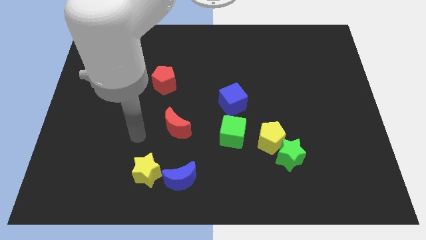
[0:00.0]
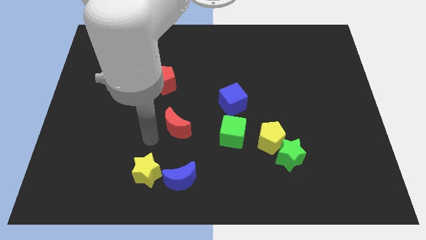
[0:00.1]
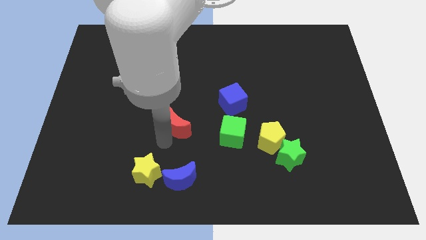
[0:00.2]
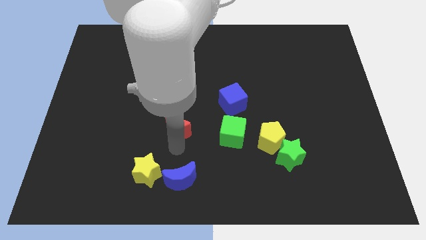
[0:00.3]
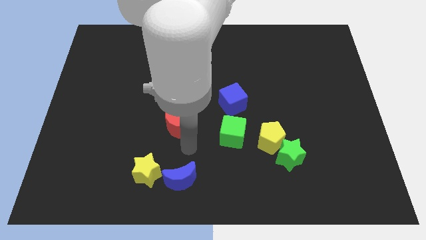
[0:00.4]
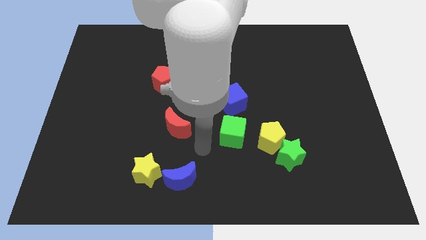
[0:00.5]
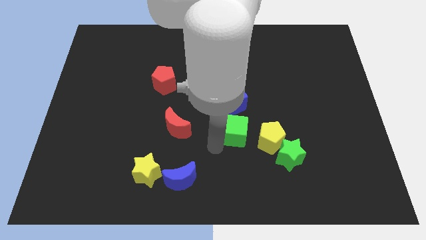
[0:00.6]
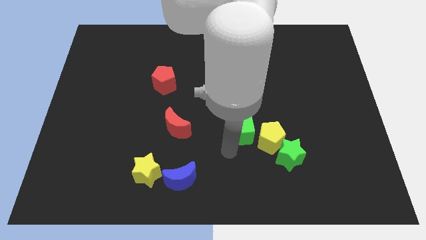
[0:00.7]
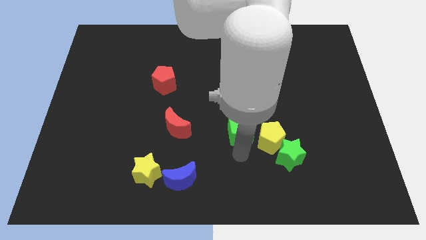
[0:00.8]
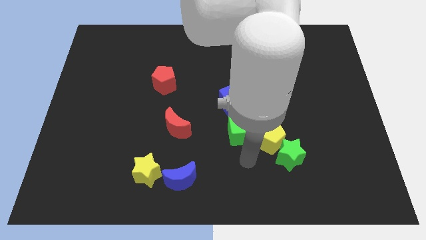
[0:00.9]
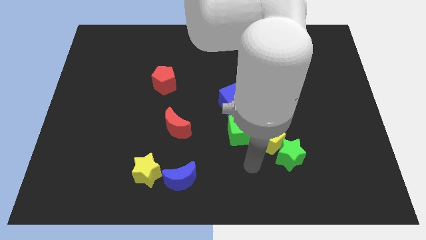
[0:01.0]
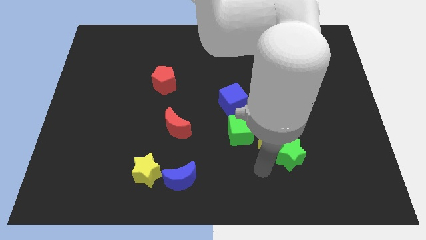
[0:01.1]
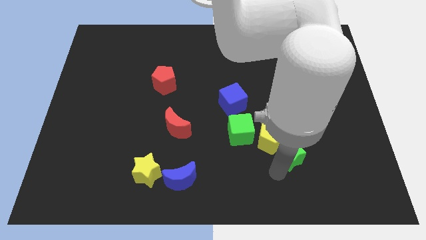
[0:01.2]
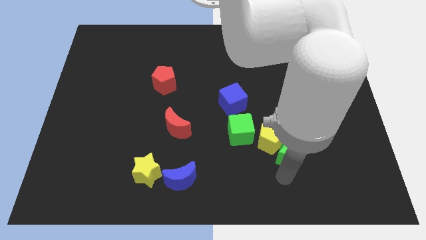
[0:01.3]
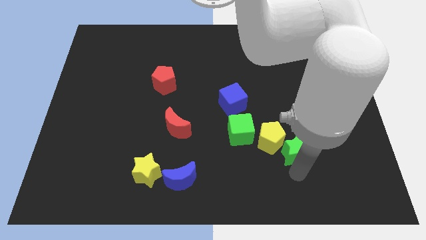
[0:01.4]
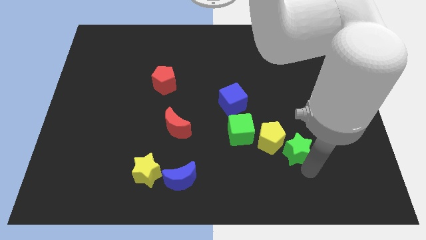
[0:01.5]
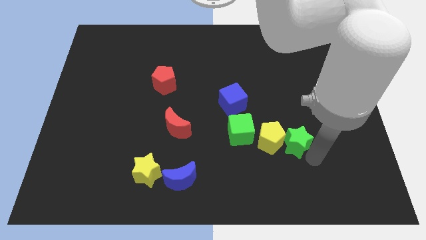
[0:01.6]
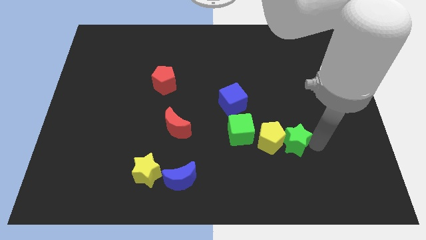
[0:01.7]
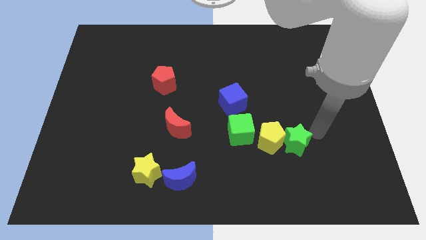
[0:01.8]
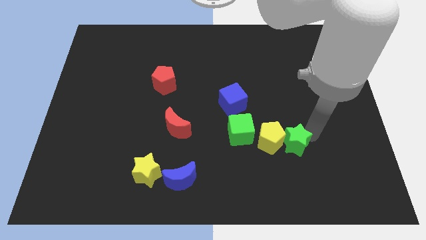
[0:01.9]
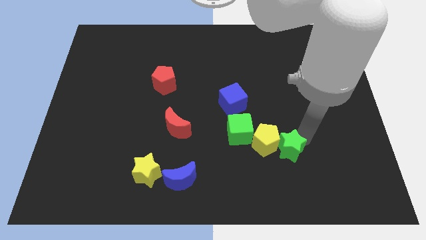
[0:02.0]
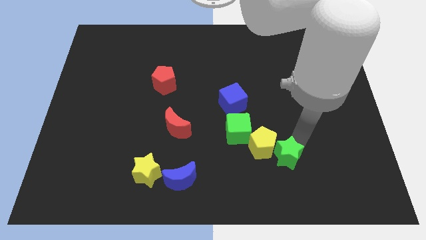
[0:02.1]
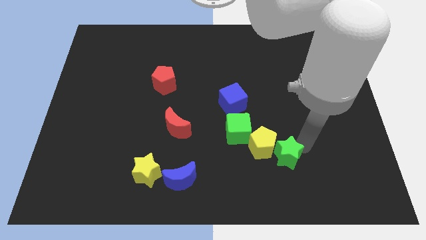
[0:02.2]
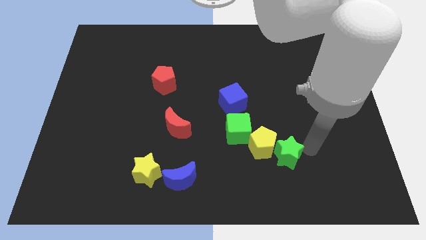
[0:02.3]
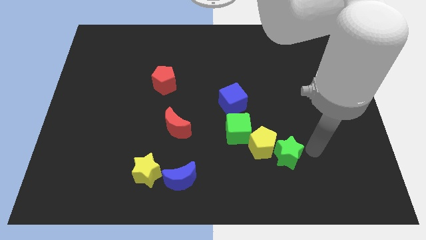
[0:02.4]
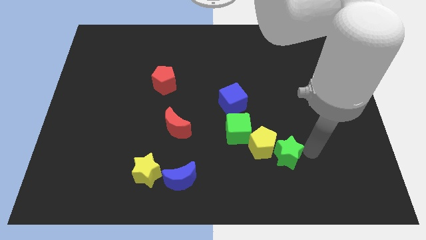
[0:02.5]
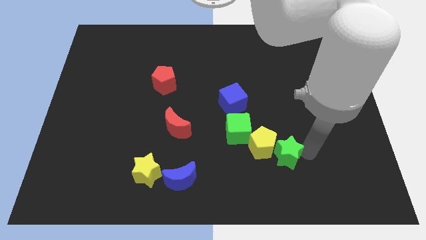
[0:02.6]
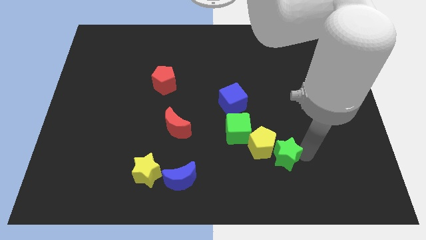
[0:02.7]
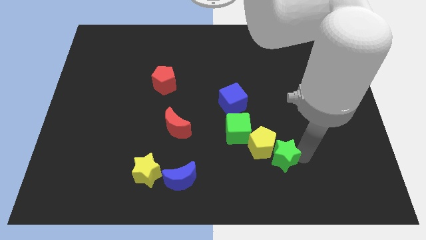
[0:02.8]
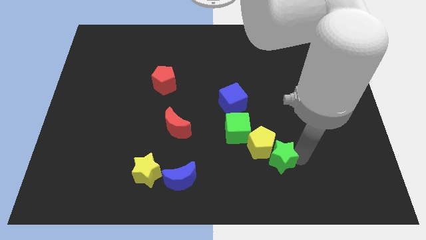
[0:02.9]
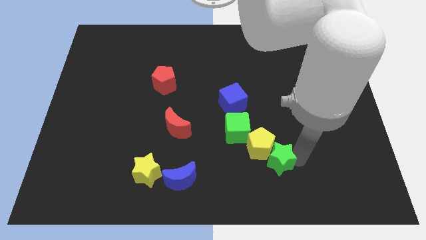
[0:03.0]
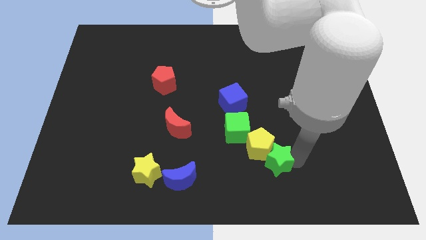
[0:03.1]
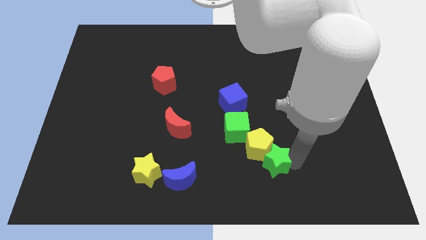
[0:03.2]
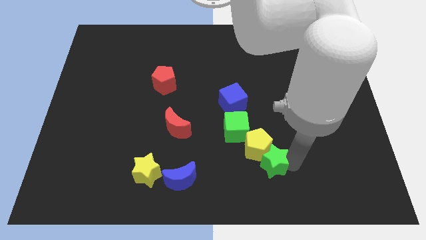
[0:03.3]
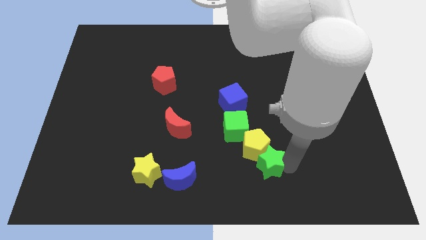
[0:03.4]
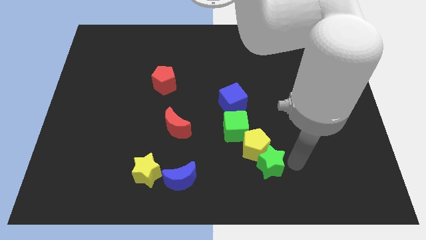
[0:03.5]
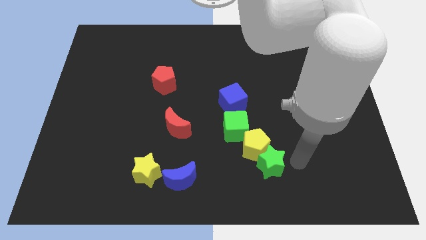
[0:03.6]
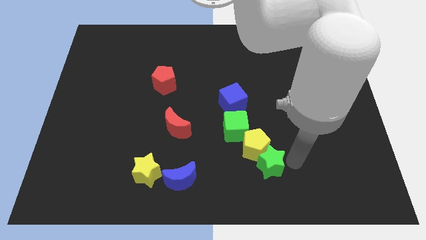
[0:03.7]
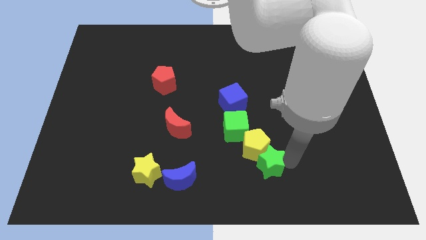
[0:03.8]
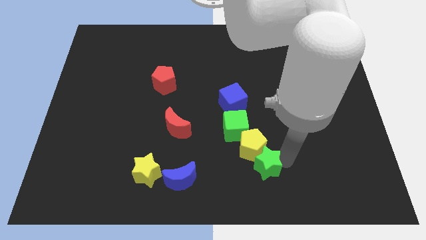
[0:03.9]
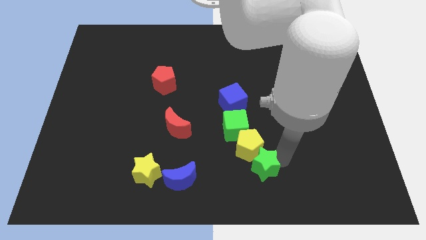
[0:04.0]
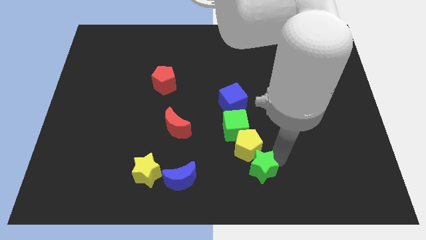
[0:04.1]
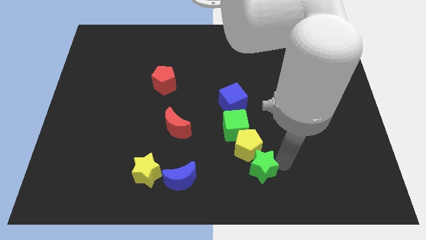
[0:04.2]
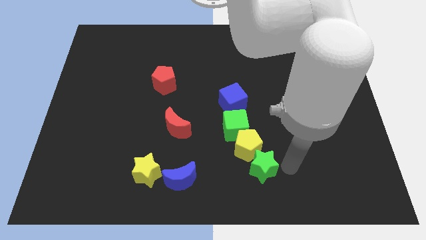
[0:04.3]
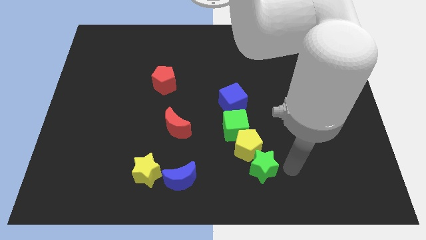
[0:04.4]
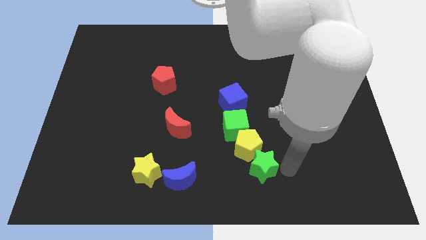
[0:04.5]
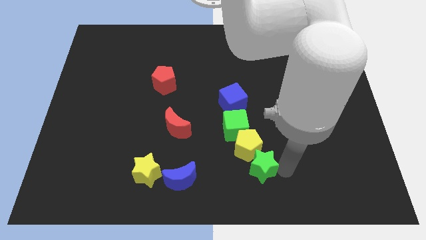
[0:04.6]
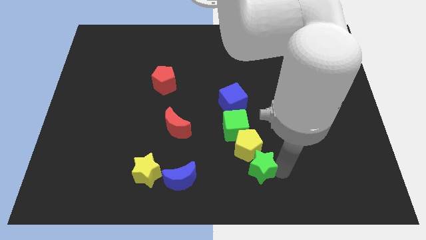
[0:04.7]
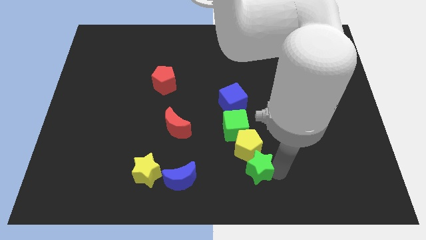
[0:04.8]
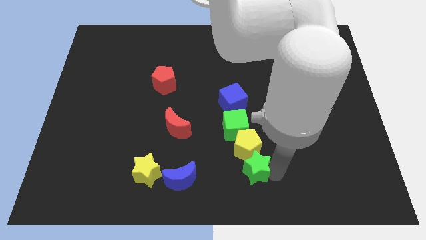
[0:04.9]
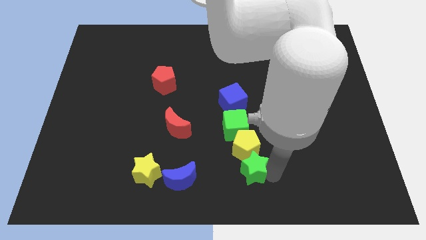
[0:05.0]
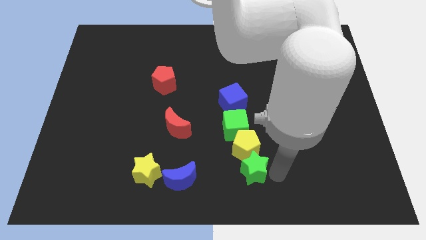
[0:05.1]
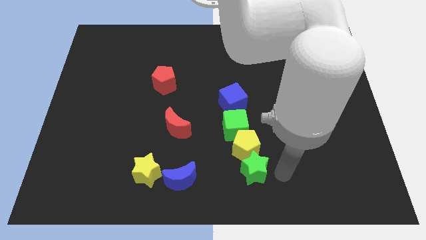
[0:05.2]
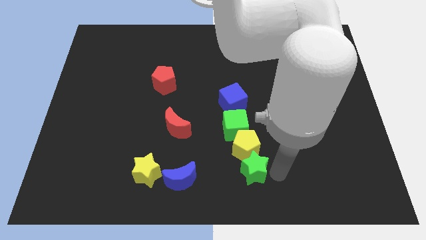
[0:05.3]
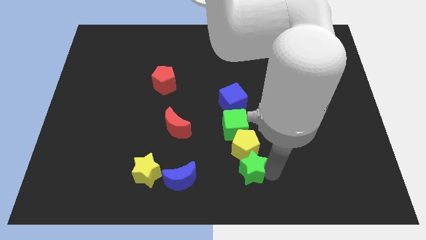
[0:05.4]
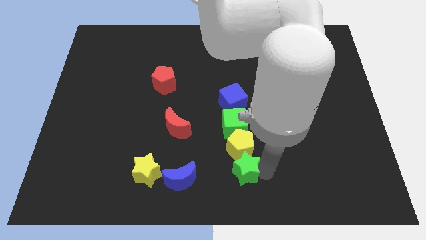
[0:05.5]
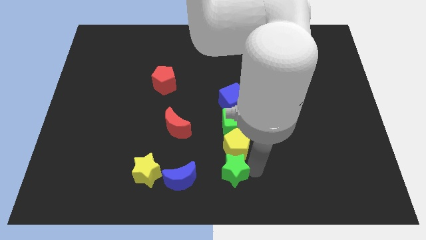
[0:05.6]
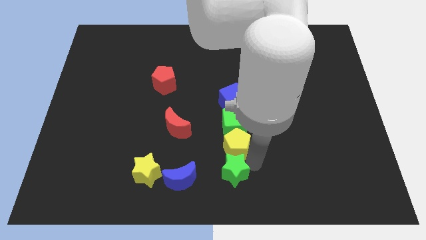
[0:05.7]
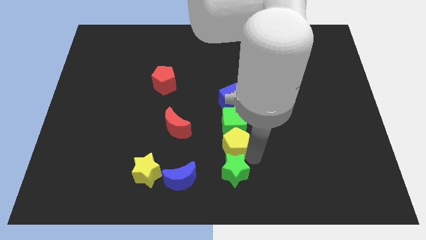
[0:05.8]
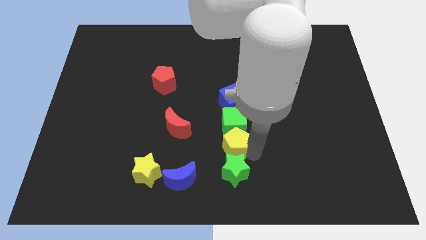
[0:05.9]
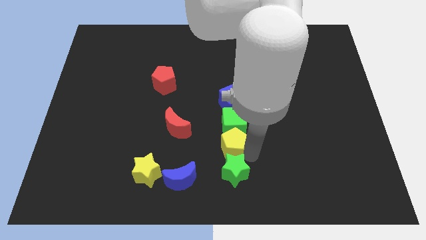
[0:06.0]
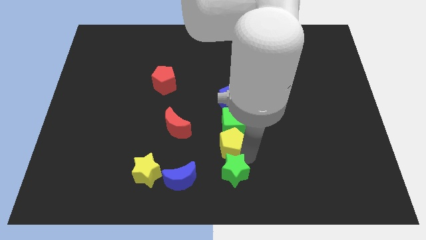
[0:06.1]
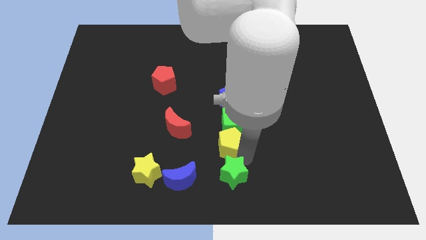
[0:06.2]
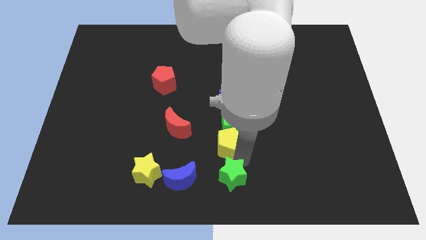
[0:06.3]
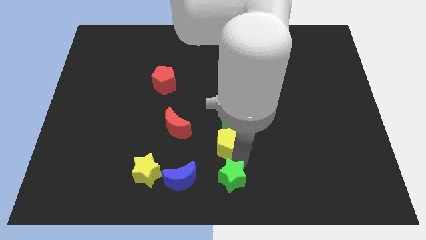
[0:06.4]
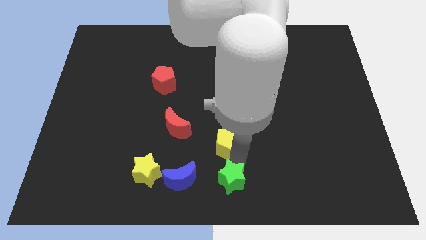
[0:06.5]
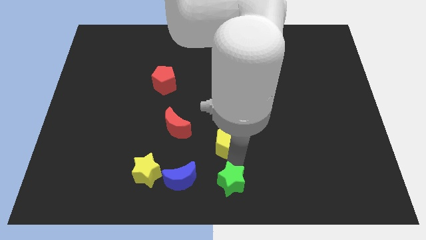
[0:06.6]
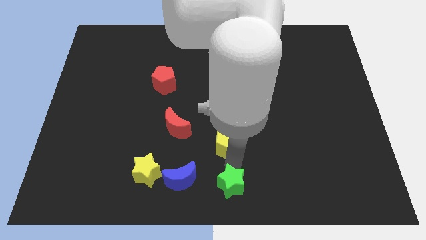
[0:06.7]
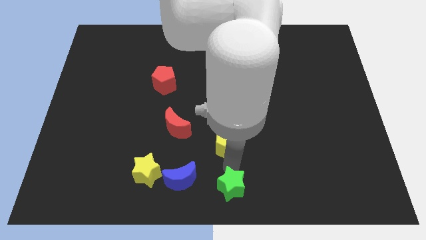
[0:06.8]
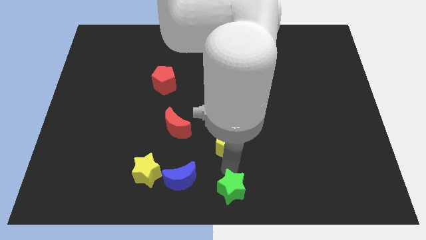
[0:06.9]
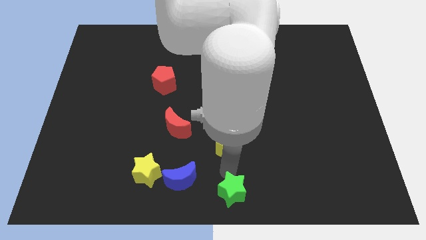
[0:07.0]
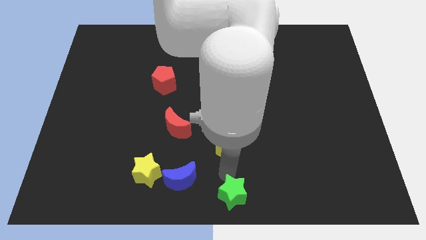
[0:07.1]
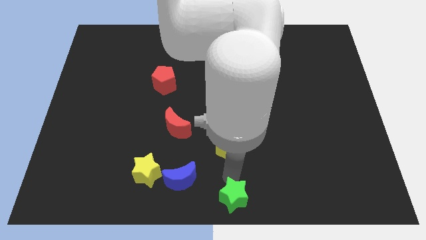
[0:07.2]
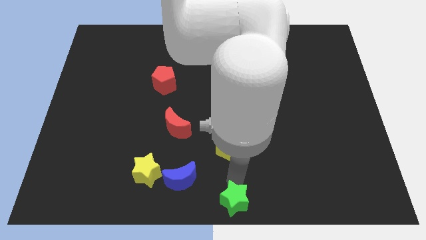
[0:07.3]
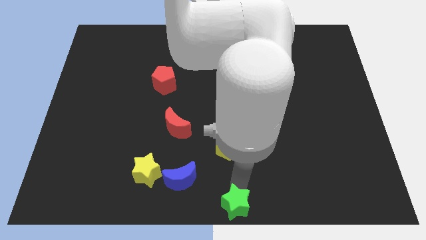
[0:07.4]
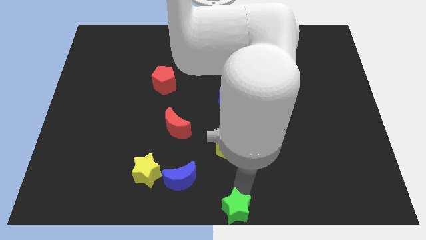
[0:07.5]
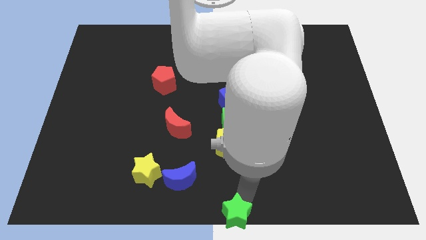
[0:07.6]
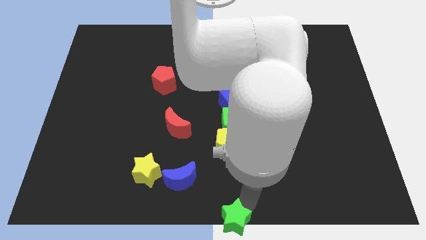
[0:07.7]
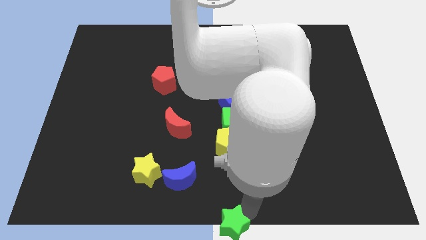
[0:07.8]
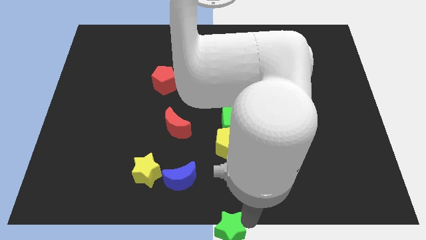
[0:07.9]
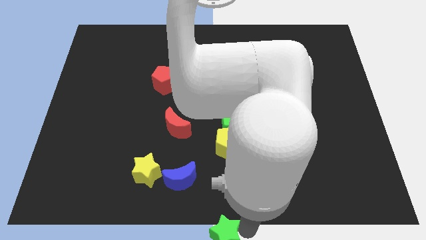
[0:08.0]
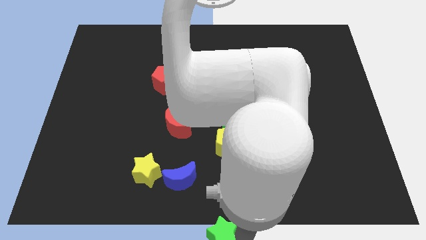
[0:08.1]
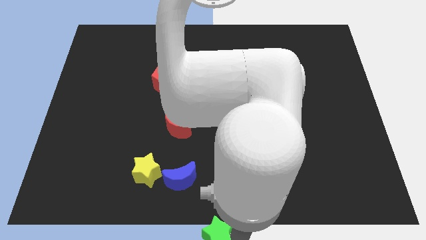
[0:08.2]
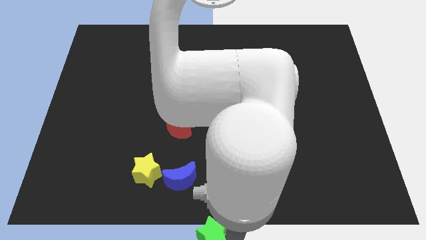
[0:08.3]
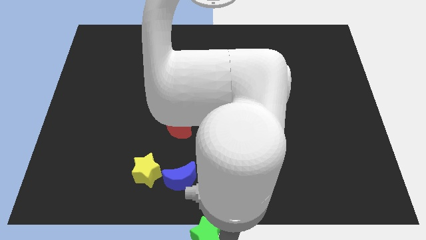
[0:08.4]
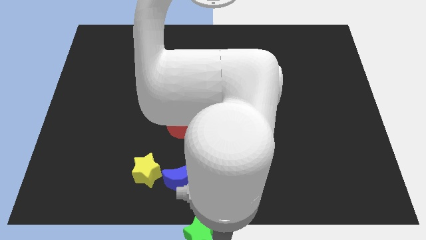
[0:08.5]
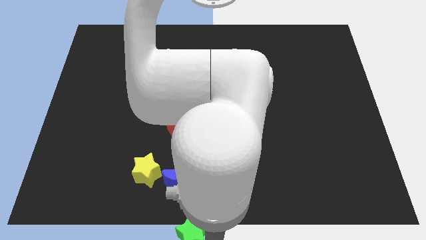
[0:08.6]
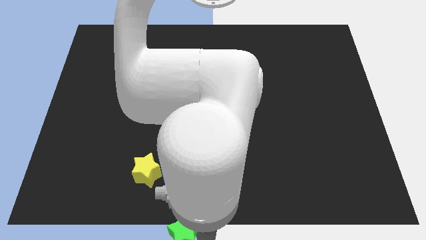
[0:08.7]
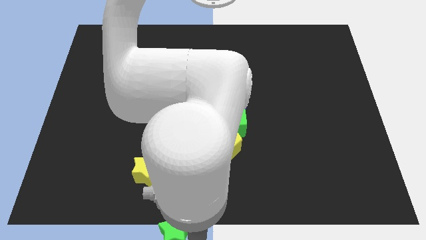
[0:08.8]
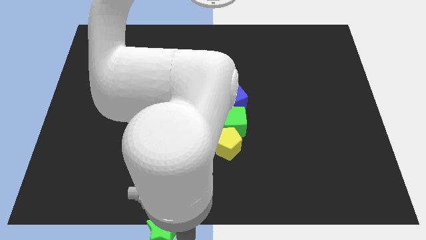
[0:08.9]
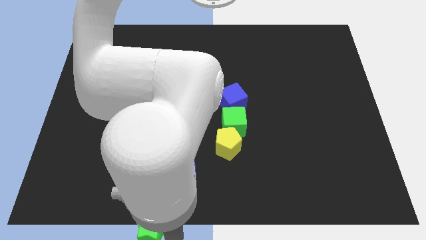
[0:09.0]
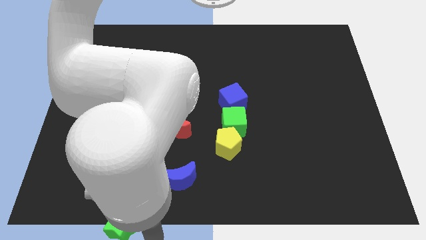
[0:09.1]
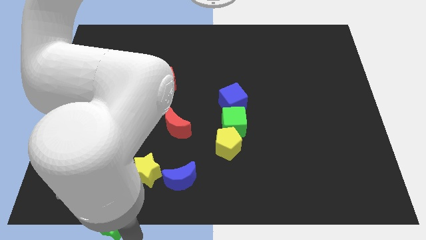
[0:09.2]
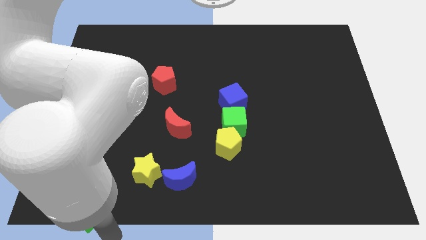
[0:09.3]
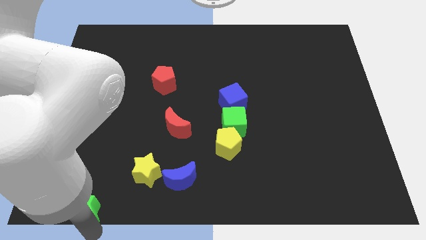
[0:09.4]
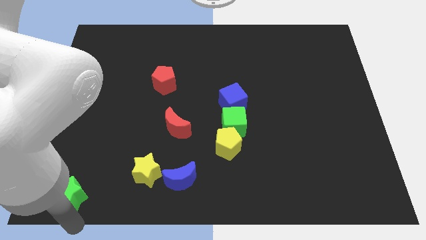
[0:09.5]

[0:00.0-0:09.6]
move the green star to the bottom left
